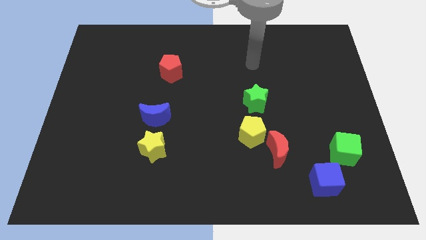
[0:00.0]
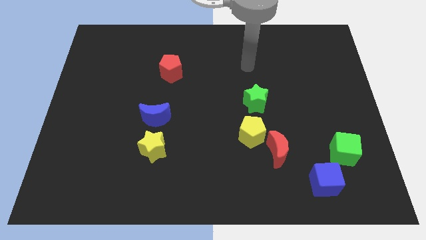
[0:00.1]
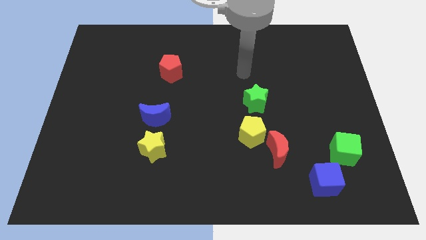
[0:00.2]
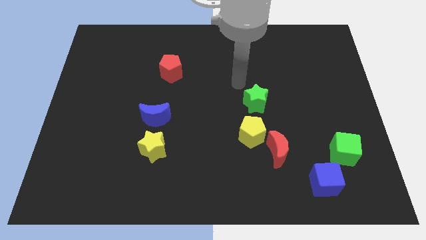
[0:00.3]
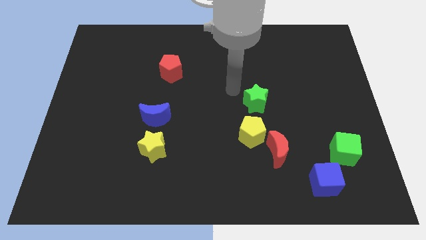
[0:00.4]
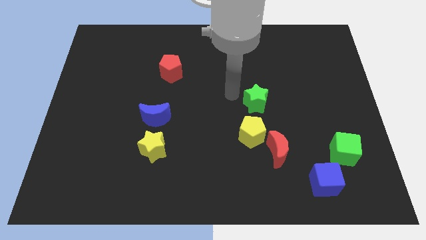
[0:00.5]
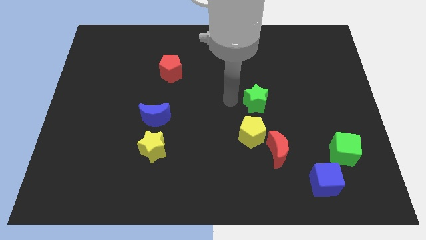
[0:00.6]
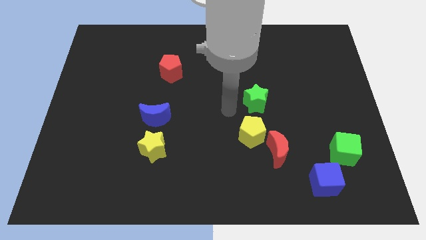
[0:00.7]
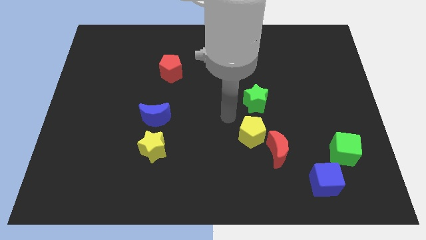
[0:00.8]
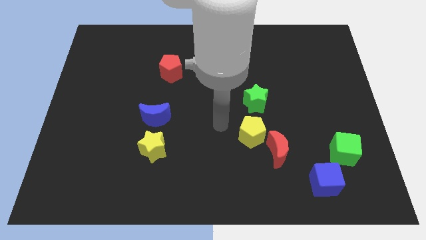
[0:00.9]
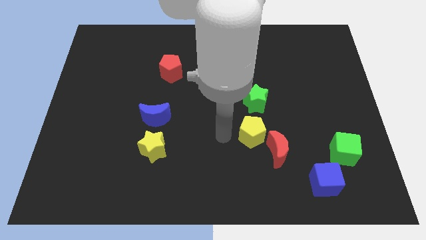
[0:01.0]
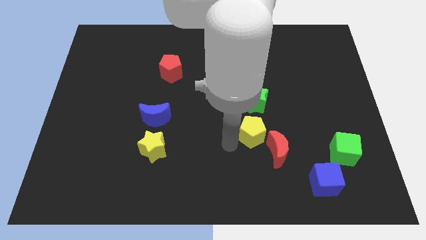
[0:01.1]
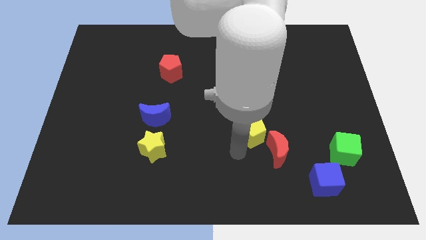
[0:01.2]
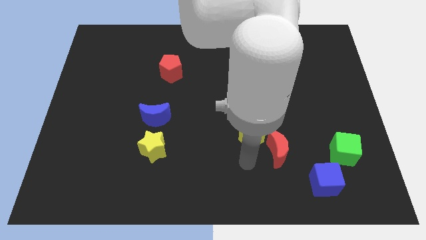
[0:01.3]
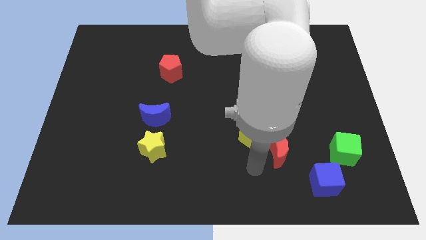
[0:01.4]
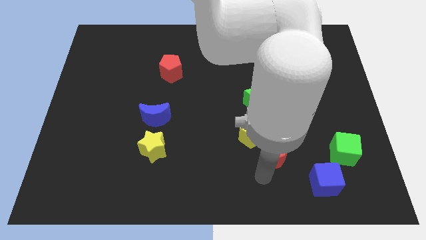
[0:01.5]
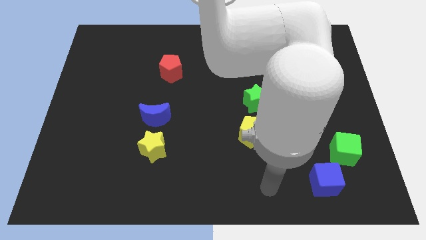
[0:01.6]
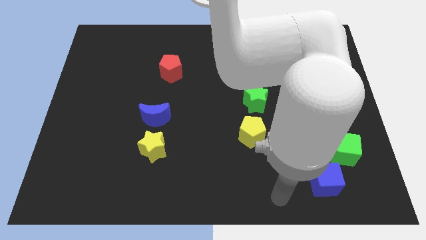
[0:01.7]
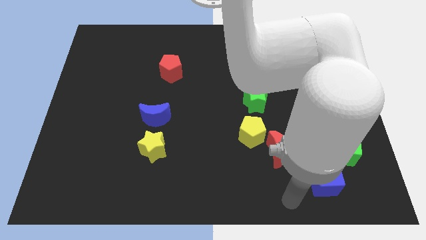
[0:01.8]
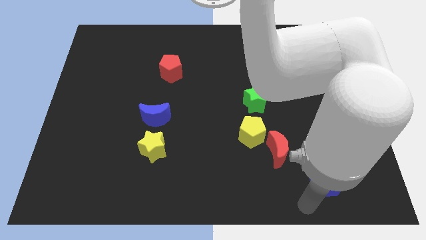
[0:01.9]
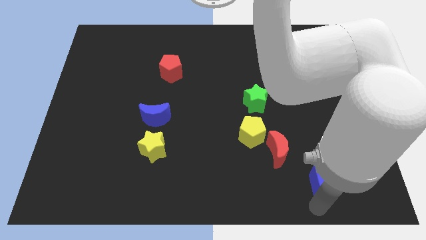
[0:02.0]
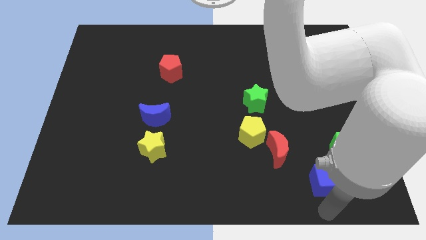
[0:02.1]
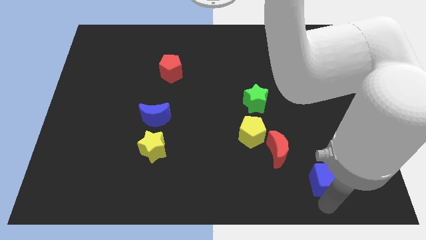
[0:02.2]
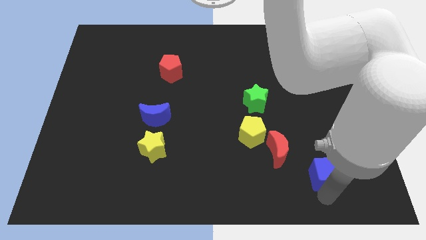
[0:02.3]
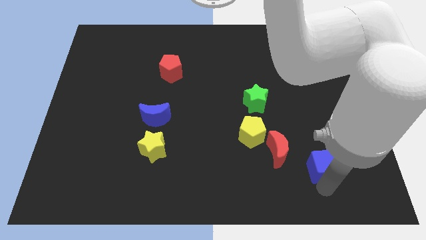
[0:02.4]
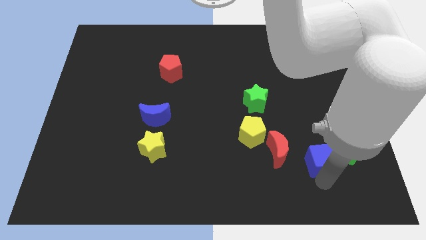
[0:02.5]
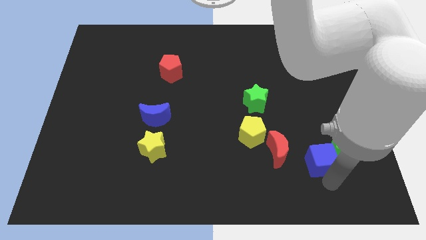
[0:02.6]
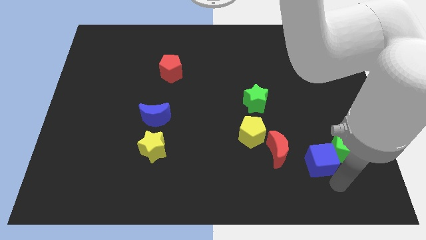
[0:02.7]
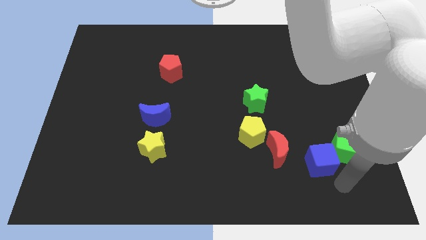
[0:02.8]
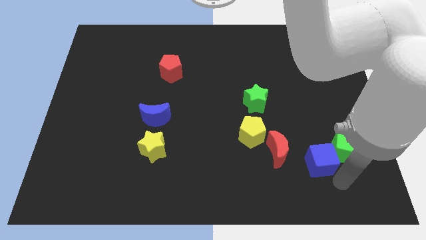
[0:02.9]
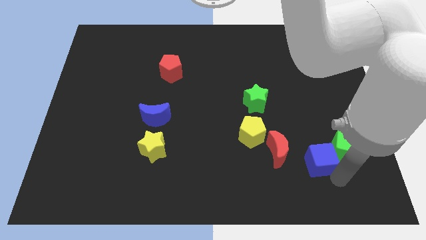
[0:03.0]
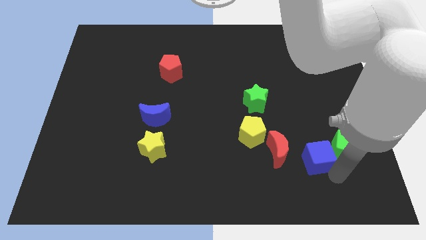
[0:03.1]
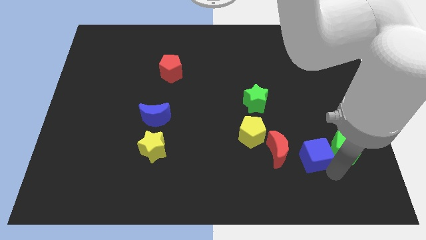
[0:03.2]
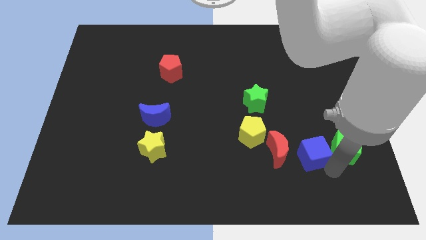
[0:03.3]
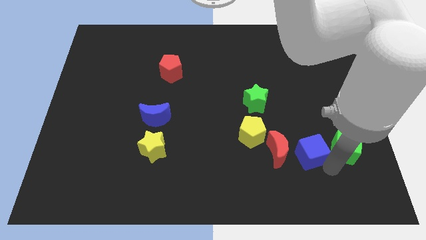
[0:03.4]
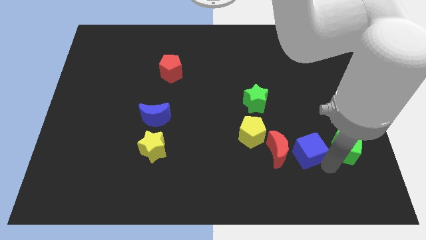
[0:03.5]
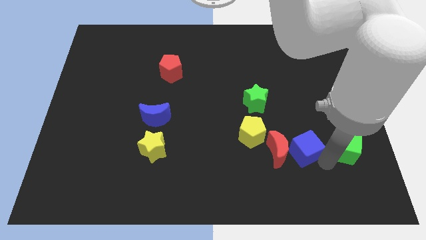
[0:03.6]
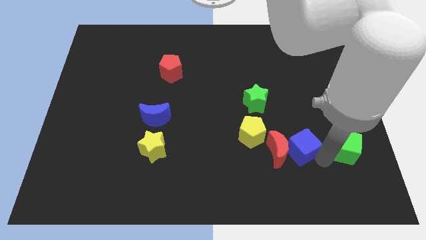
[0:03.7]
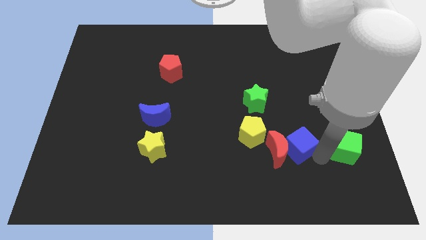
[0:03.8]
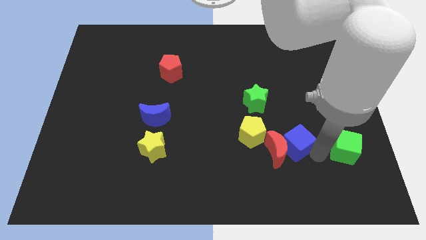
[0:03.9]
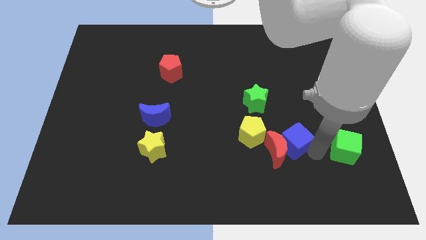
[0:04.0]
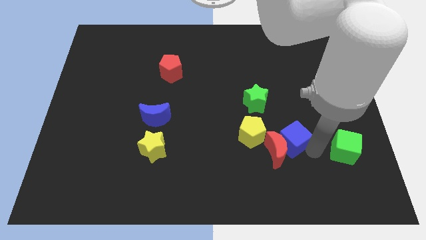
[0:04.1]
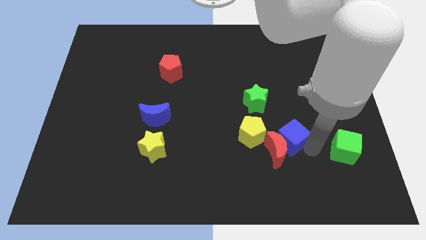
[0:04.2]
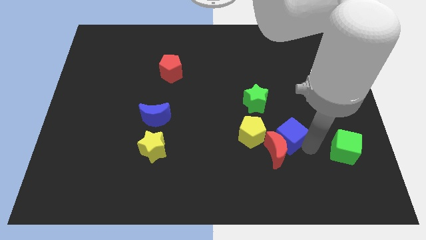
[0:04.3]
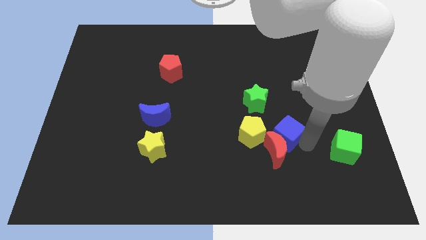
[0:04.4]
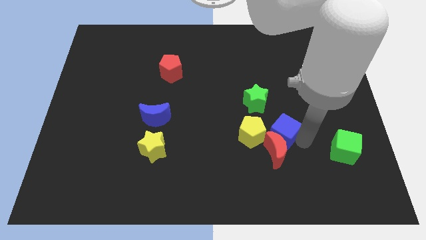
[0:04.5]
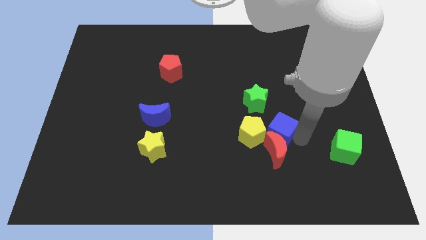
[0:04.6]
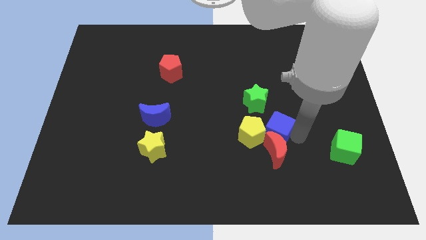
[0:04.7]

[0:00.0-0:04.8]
move the blue cube to the yellow pentagon

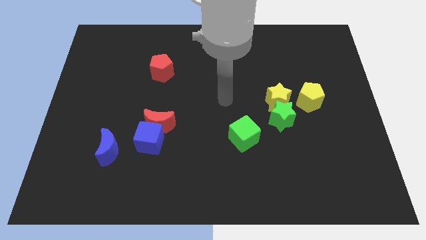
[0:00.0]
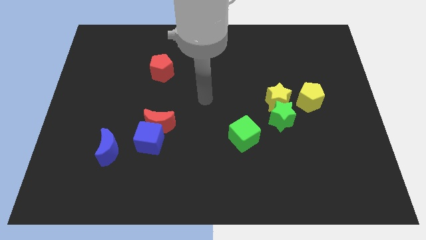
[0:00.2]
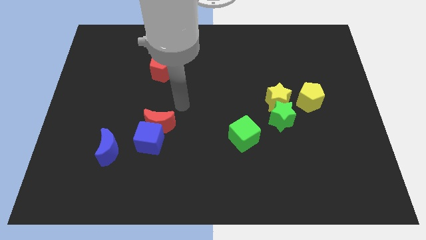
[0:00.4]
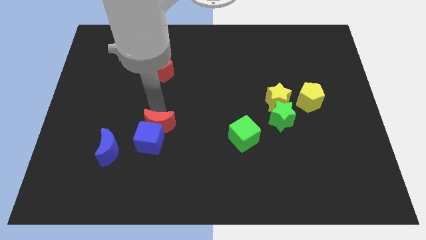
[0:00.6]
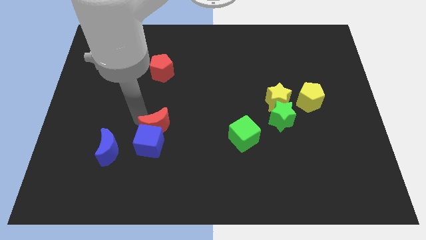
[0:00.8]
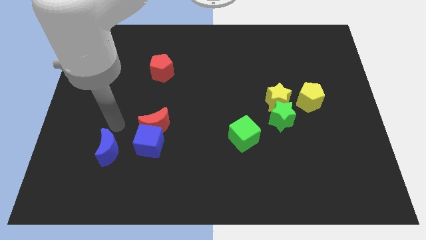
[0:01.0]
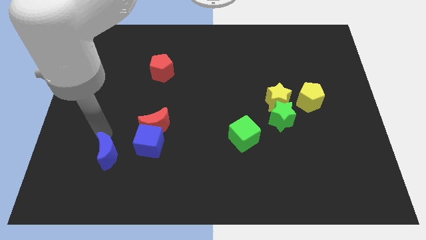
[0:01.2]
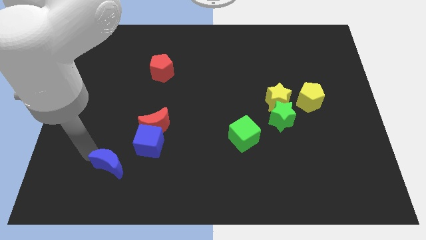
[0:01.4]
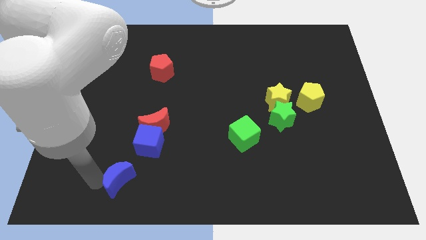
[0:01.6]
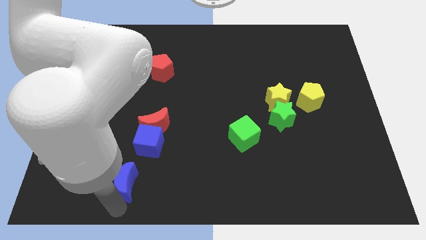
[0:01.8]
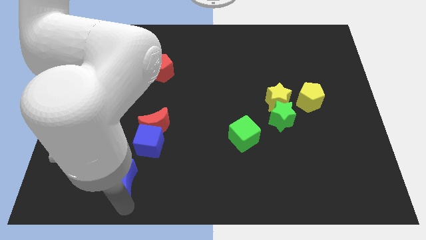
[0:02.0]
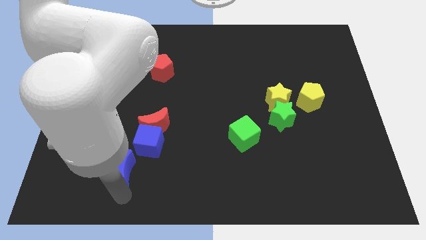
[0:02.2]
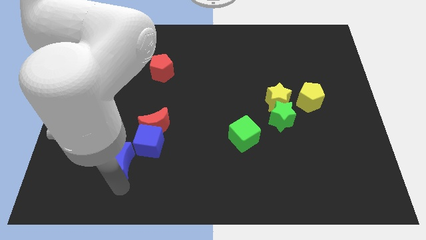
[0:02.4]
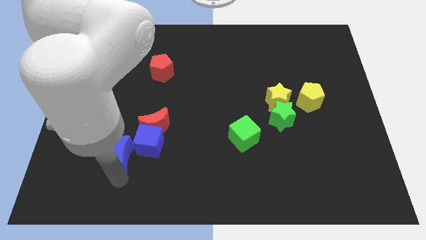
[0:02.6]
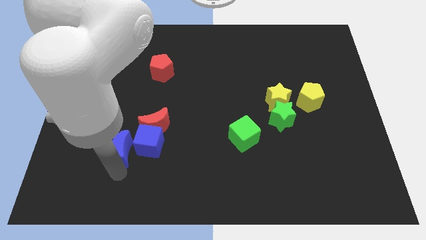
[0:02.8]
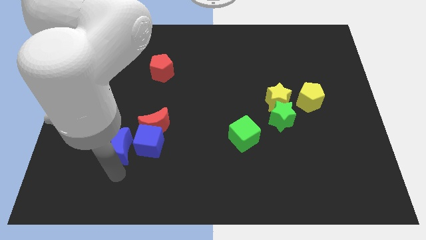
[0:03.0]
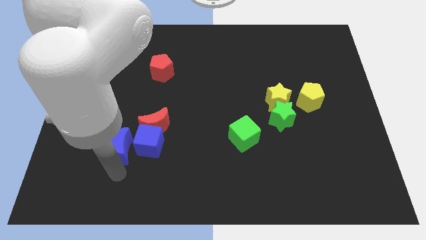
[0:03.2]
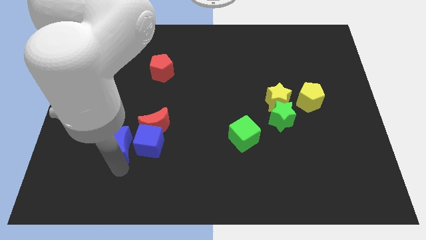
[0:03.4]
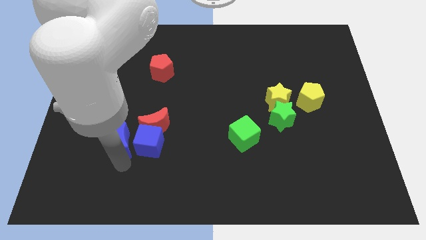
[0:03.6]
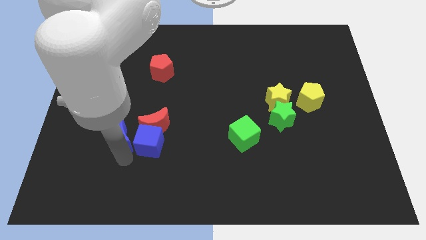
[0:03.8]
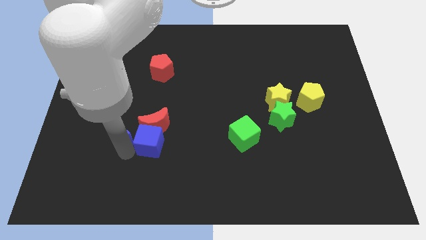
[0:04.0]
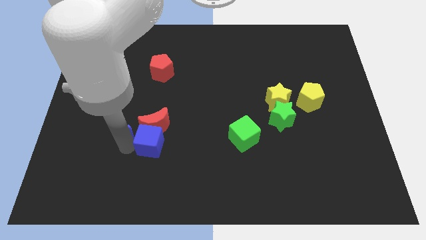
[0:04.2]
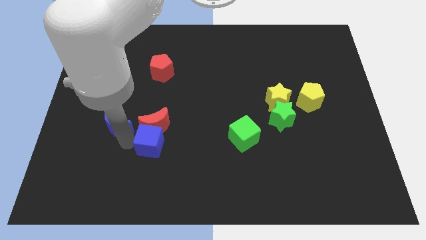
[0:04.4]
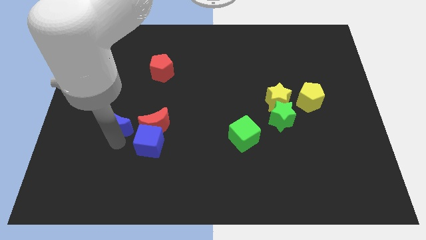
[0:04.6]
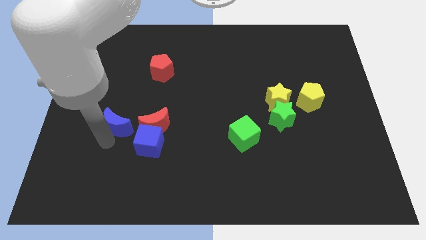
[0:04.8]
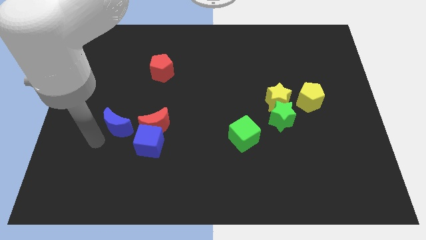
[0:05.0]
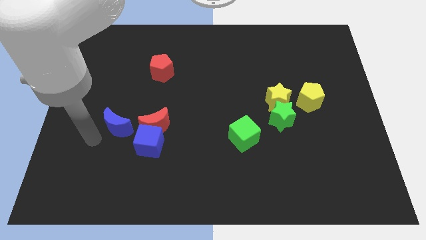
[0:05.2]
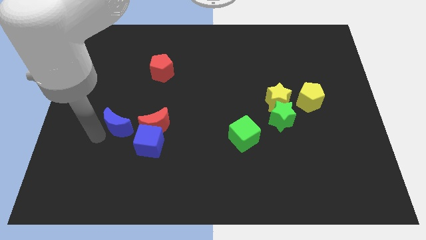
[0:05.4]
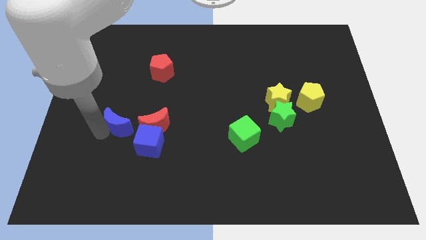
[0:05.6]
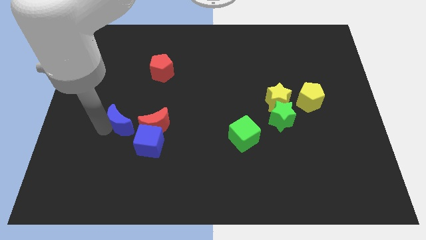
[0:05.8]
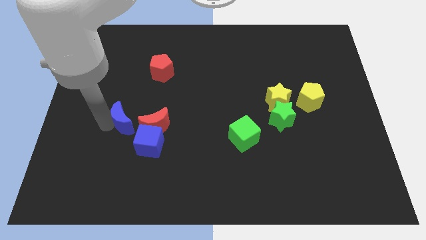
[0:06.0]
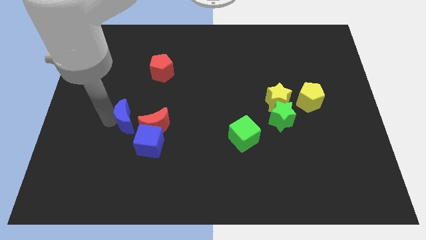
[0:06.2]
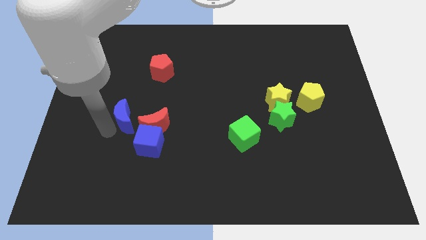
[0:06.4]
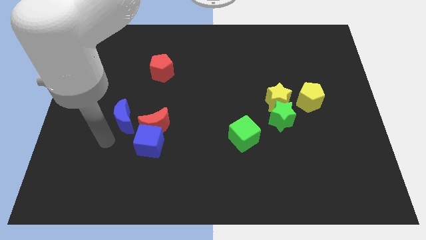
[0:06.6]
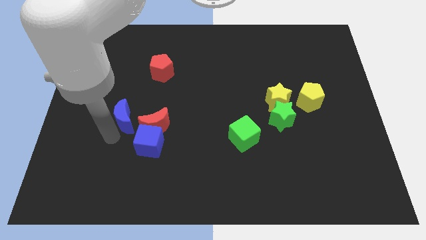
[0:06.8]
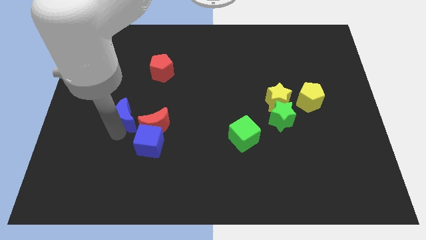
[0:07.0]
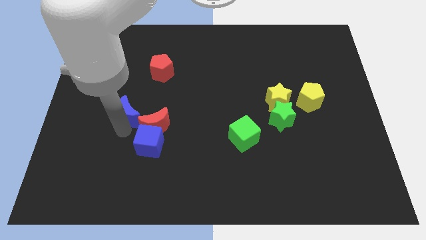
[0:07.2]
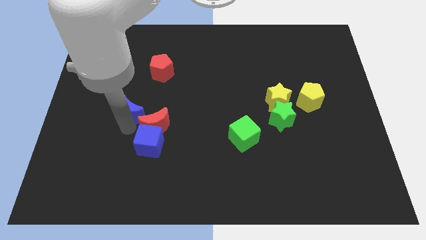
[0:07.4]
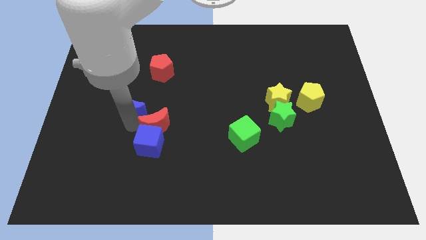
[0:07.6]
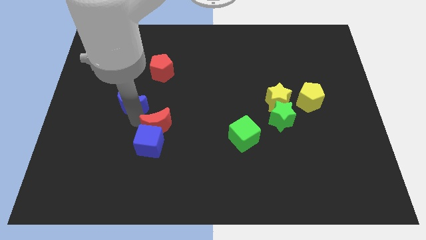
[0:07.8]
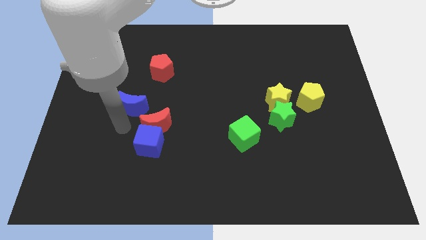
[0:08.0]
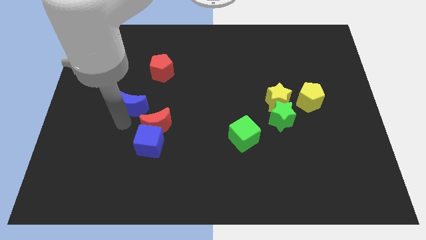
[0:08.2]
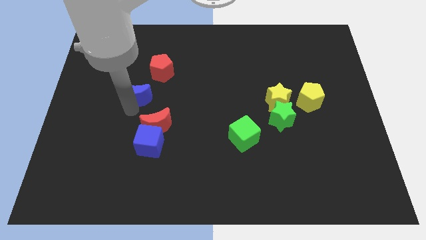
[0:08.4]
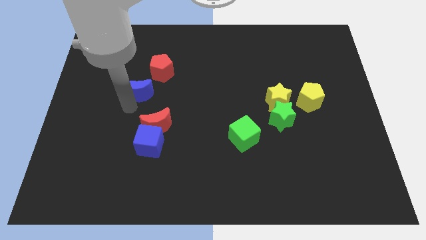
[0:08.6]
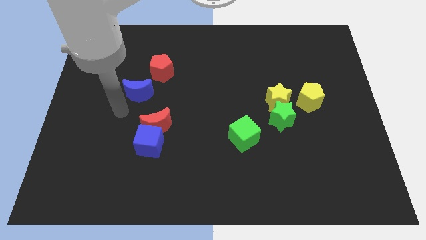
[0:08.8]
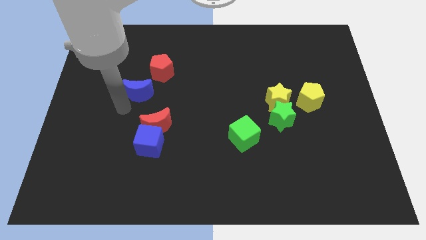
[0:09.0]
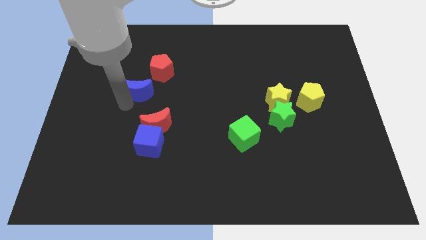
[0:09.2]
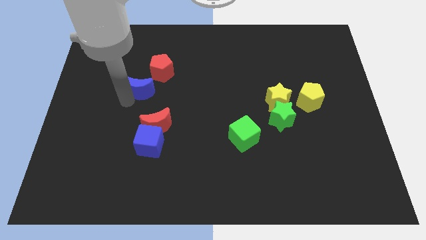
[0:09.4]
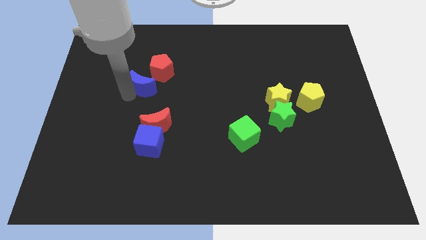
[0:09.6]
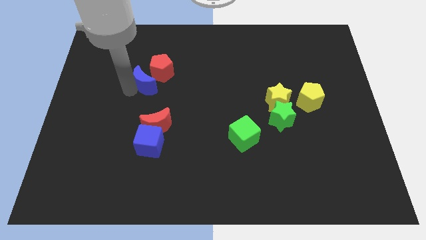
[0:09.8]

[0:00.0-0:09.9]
slide the blue moon towards the red pentagon
